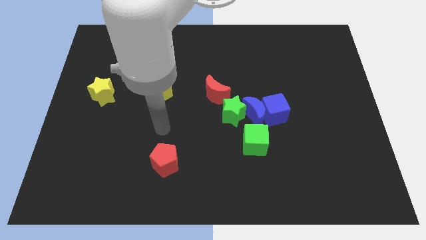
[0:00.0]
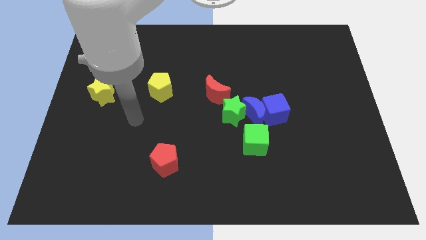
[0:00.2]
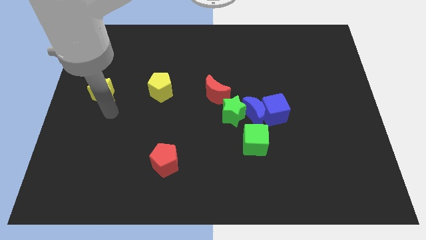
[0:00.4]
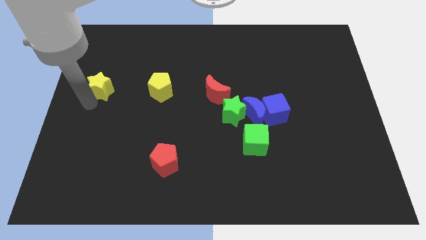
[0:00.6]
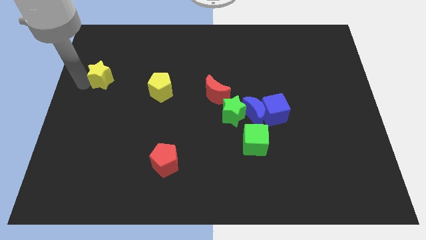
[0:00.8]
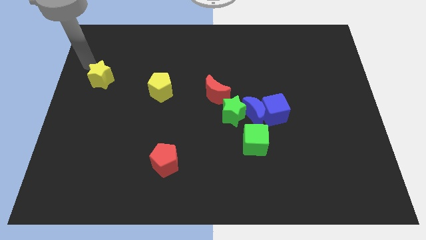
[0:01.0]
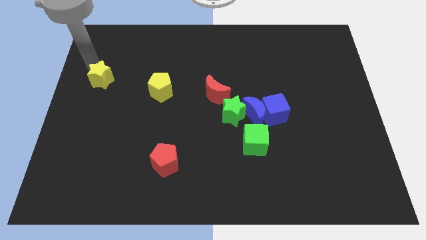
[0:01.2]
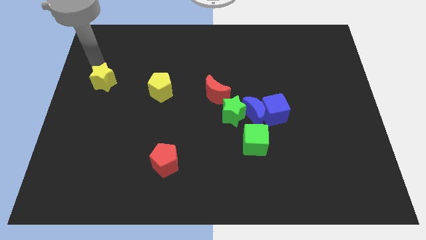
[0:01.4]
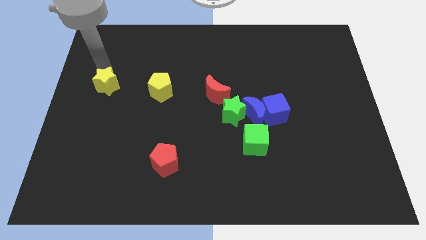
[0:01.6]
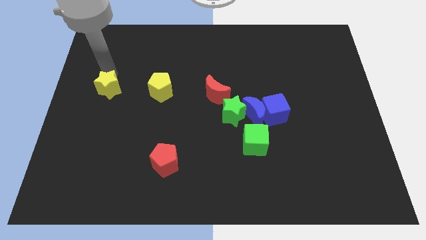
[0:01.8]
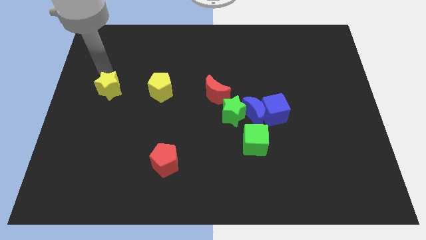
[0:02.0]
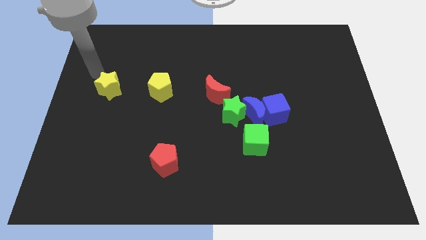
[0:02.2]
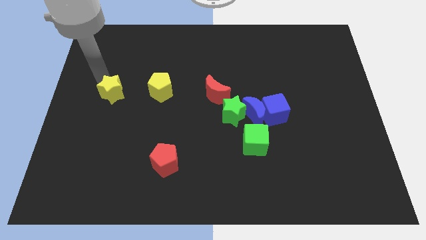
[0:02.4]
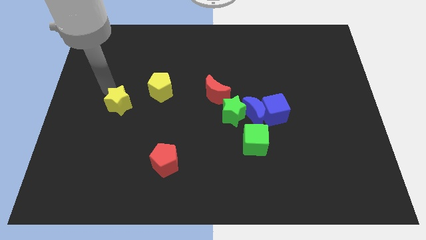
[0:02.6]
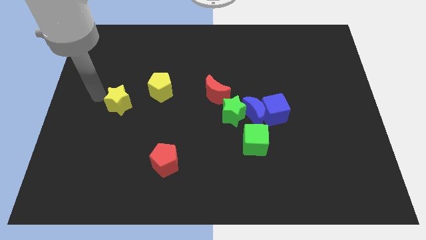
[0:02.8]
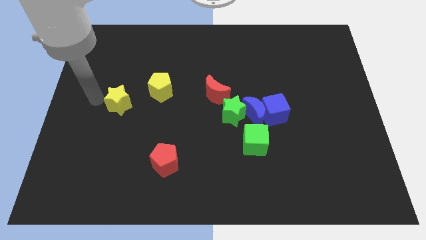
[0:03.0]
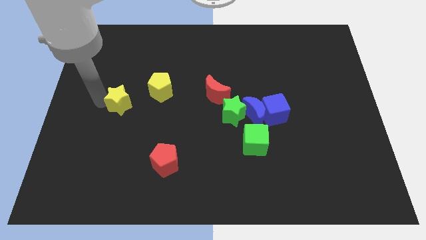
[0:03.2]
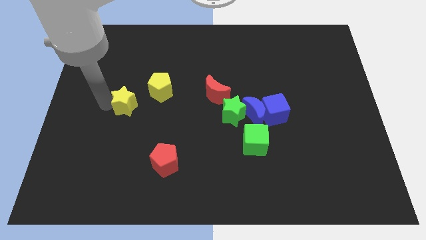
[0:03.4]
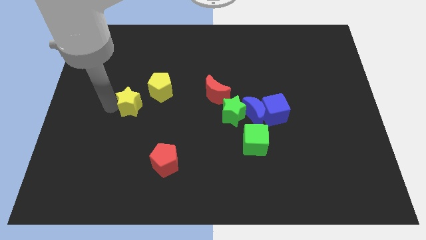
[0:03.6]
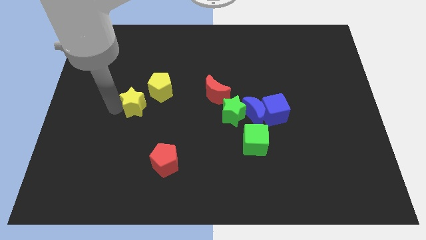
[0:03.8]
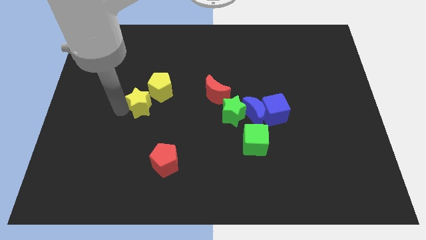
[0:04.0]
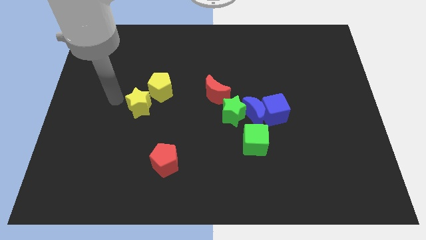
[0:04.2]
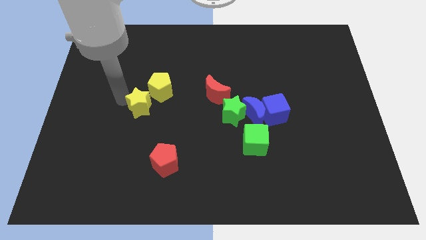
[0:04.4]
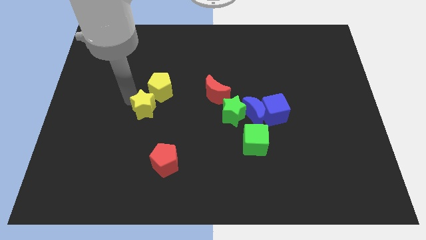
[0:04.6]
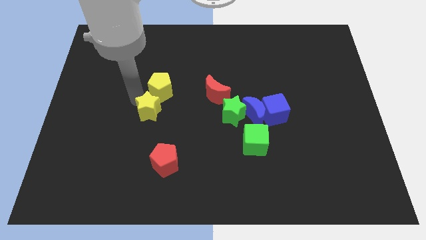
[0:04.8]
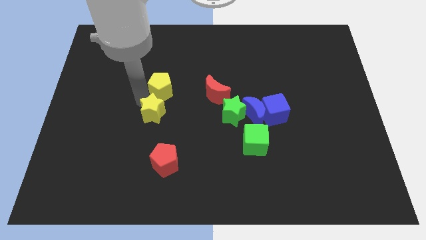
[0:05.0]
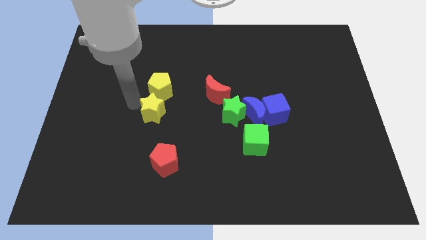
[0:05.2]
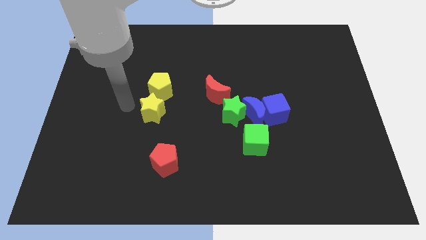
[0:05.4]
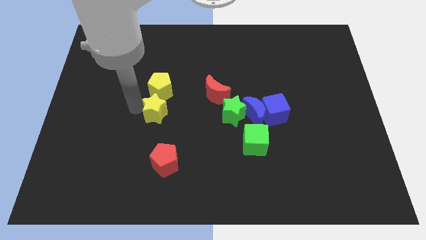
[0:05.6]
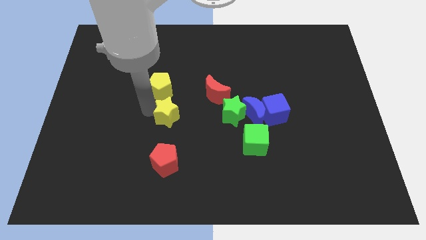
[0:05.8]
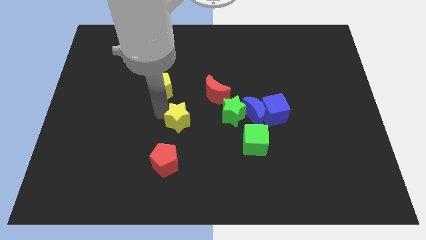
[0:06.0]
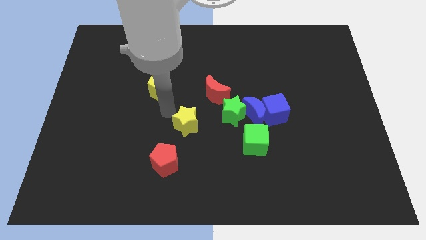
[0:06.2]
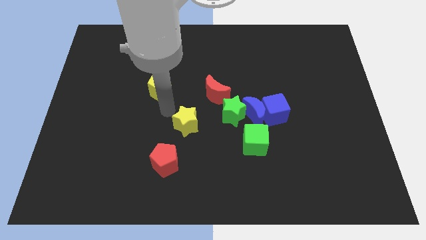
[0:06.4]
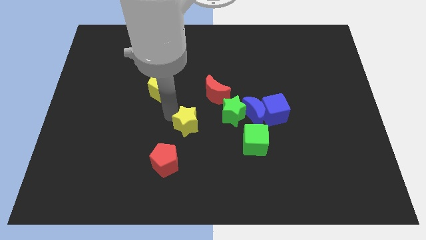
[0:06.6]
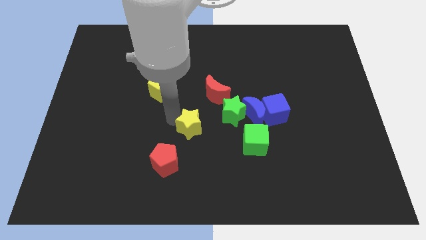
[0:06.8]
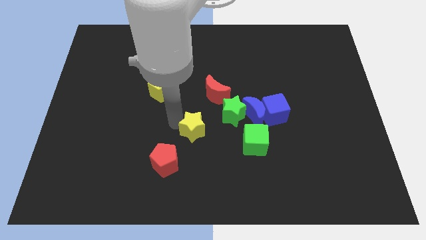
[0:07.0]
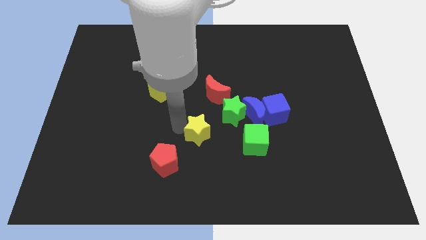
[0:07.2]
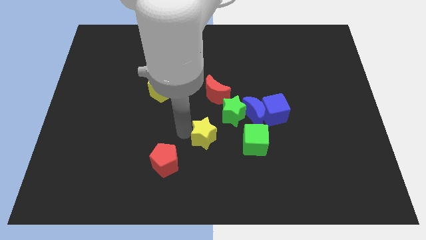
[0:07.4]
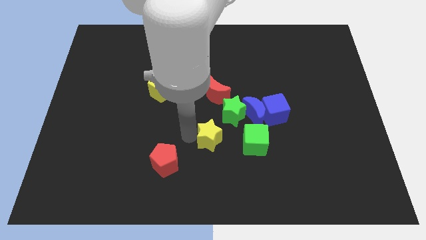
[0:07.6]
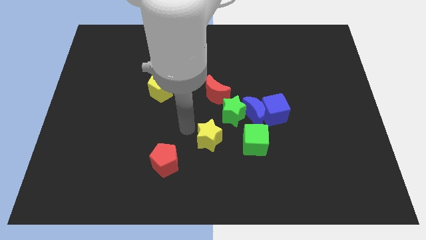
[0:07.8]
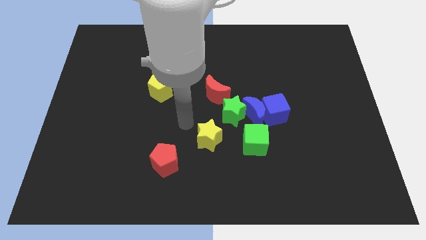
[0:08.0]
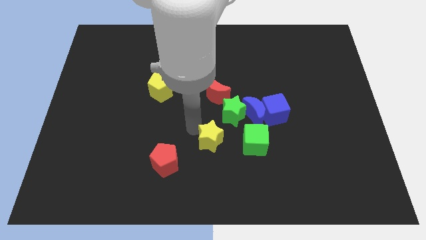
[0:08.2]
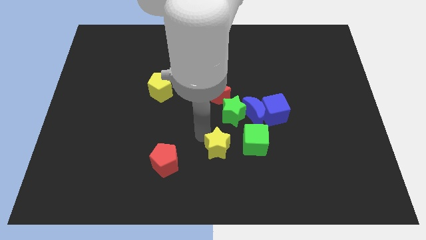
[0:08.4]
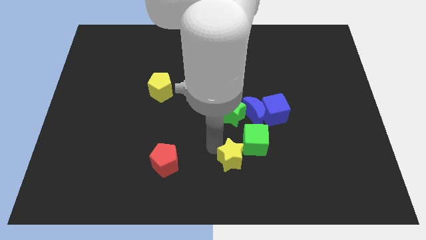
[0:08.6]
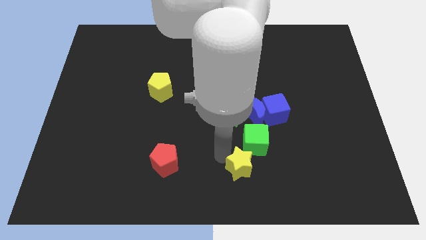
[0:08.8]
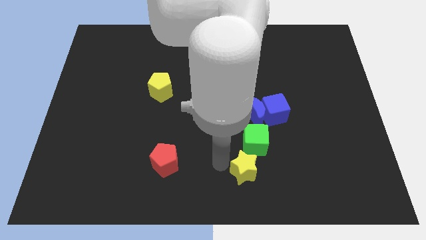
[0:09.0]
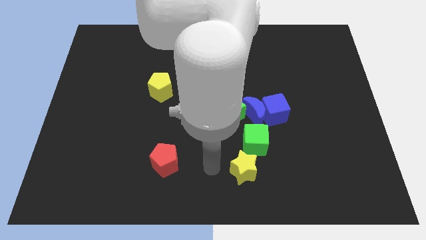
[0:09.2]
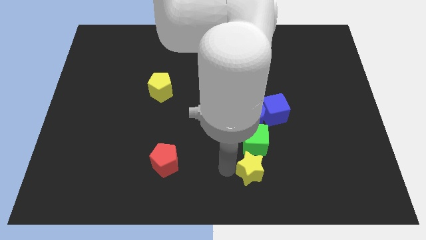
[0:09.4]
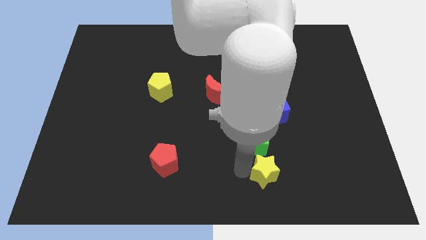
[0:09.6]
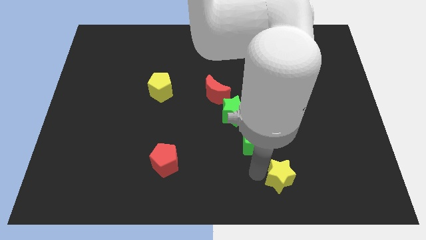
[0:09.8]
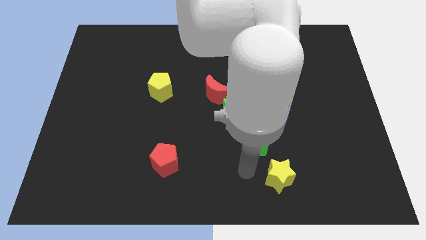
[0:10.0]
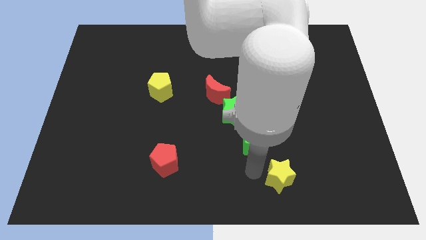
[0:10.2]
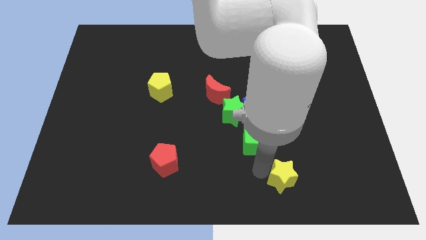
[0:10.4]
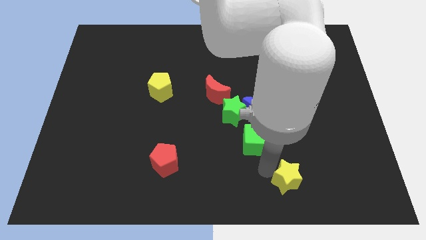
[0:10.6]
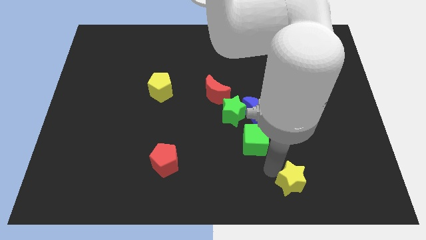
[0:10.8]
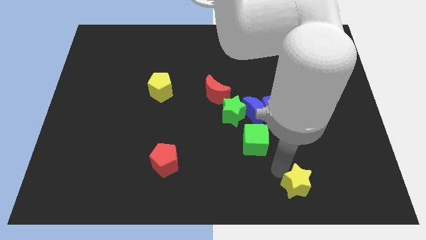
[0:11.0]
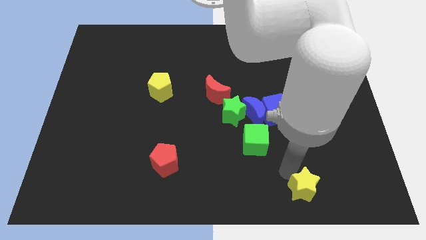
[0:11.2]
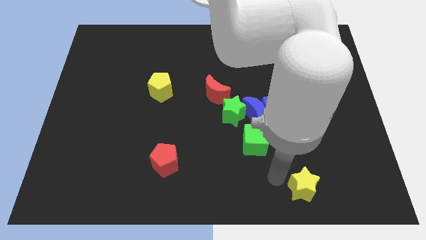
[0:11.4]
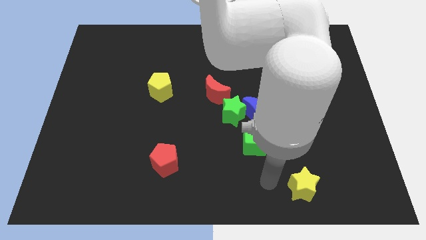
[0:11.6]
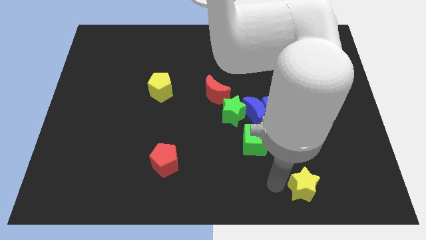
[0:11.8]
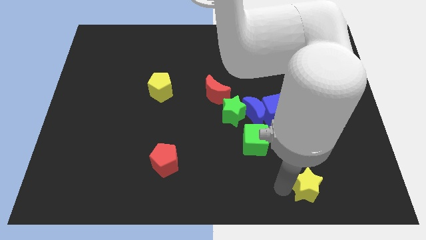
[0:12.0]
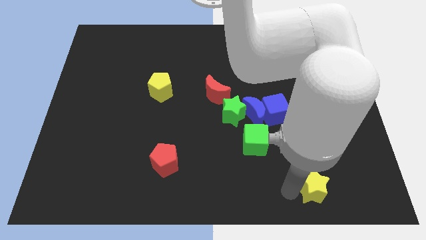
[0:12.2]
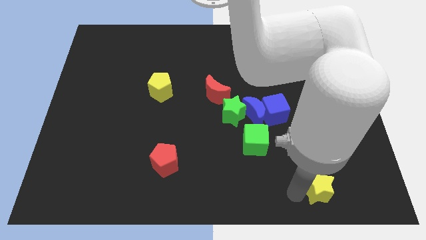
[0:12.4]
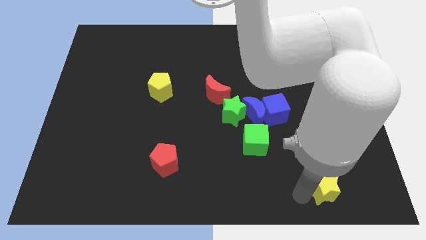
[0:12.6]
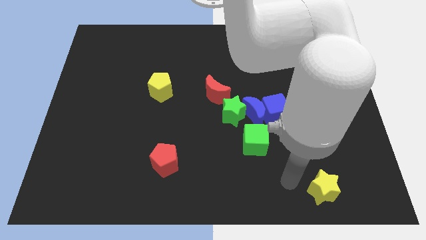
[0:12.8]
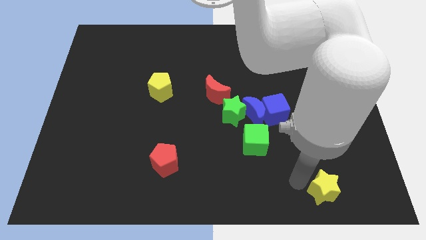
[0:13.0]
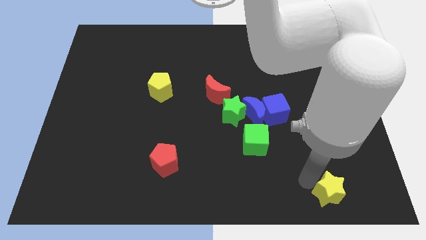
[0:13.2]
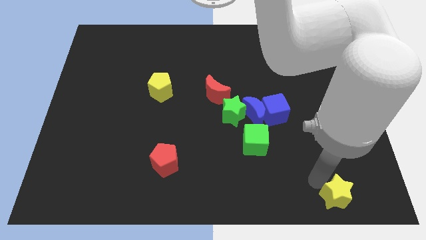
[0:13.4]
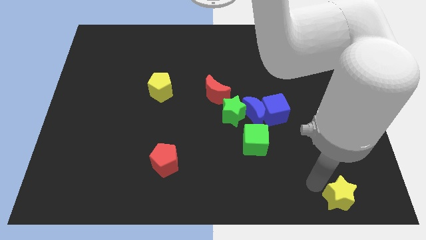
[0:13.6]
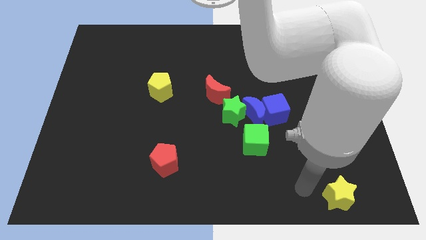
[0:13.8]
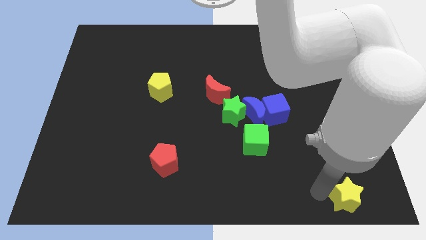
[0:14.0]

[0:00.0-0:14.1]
put the yellow star to the lower right corner

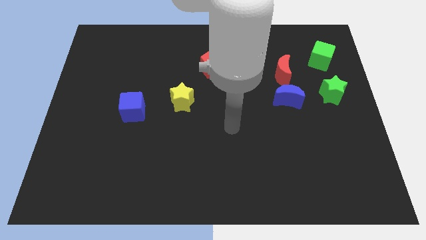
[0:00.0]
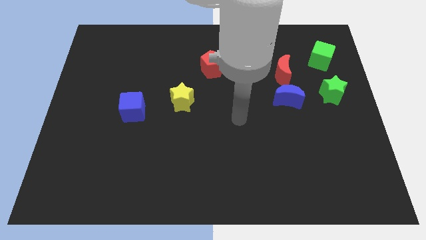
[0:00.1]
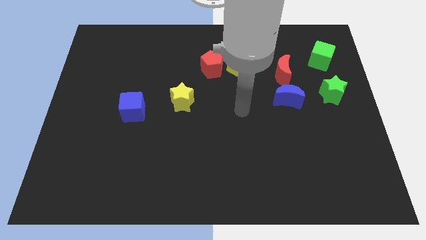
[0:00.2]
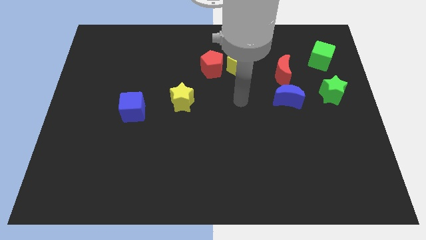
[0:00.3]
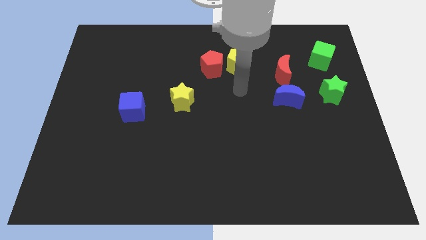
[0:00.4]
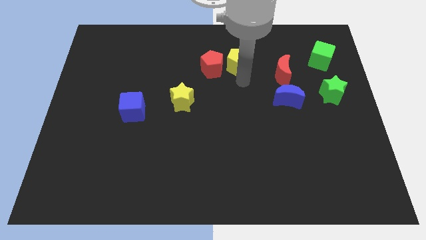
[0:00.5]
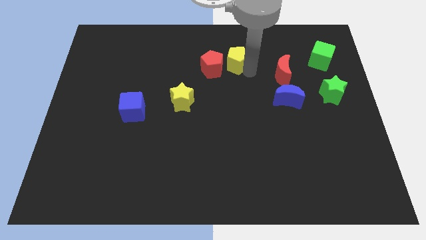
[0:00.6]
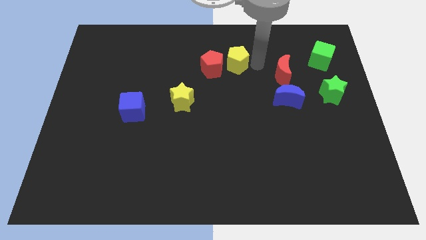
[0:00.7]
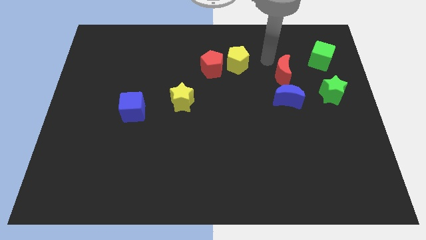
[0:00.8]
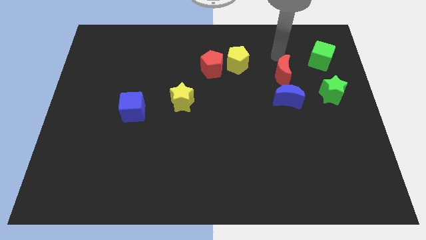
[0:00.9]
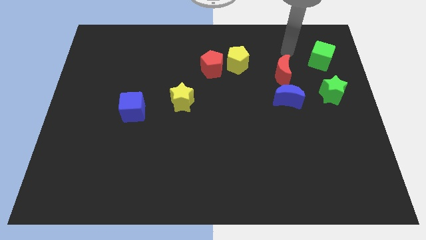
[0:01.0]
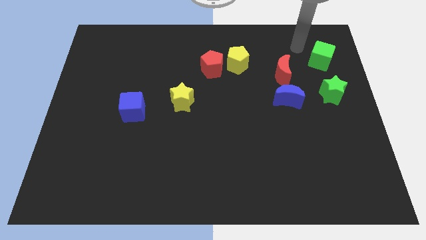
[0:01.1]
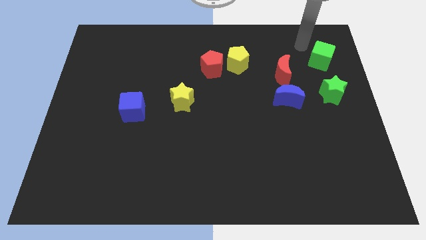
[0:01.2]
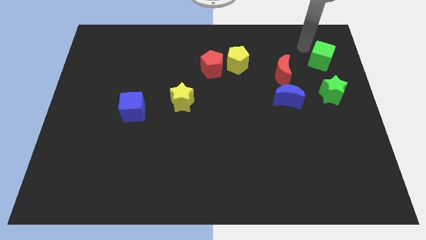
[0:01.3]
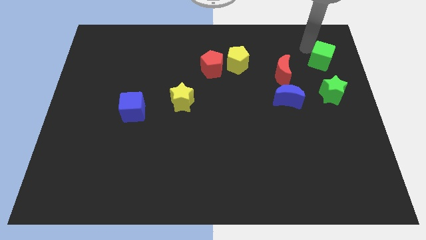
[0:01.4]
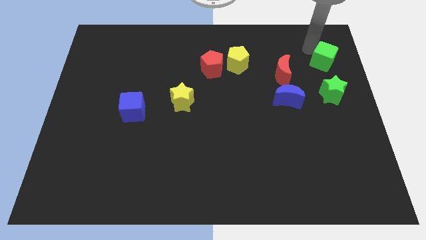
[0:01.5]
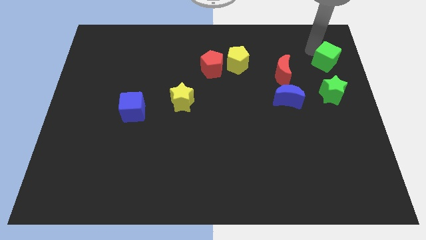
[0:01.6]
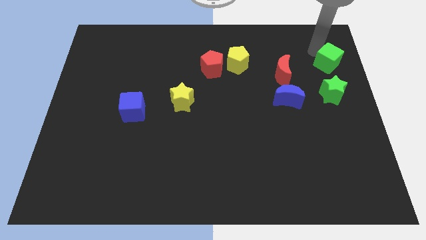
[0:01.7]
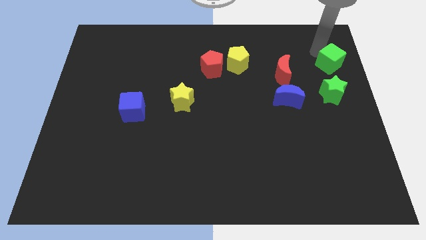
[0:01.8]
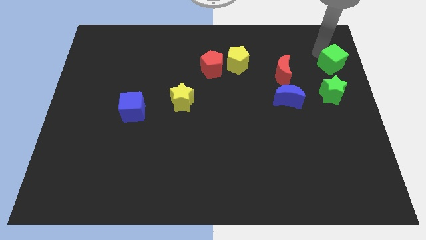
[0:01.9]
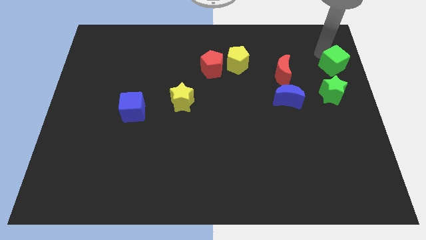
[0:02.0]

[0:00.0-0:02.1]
slide the green cube to the right side of the board
